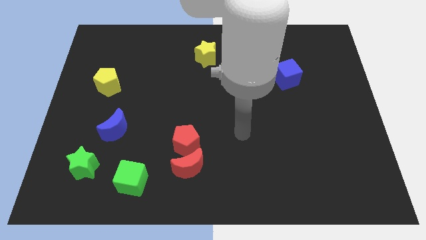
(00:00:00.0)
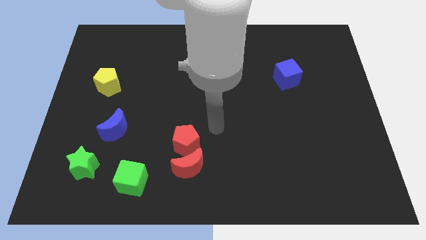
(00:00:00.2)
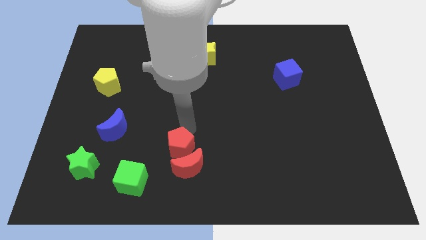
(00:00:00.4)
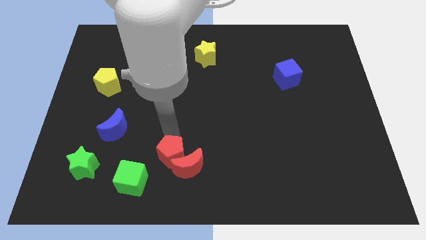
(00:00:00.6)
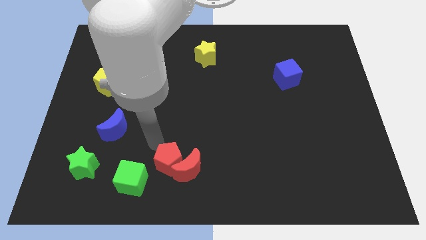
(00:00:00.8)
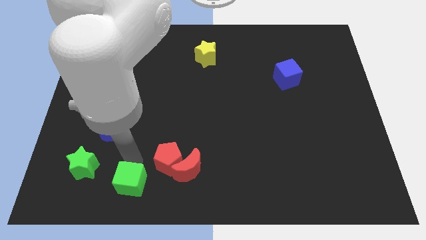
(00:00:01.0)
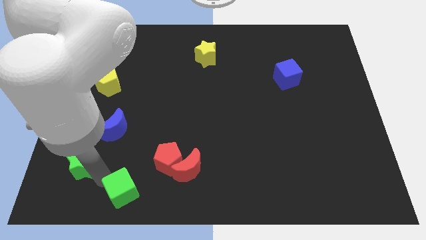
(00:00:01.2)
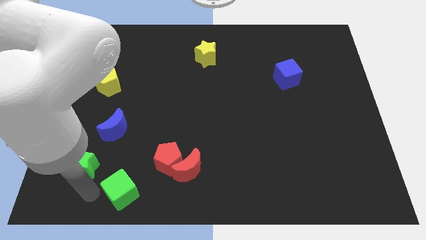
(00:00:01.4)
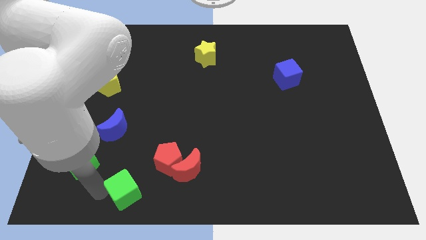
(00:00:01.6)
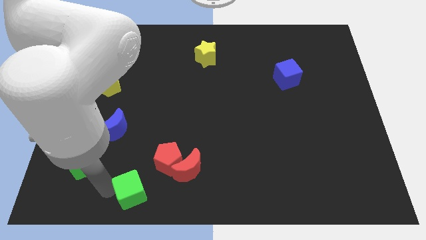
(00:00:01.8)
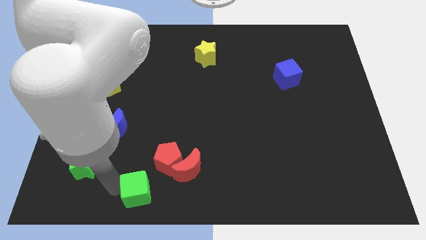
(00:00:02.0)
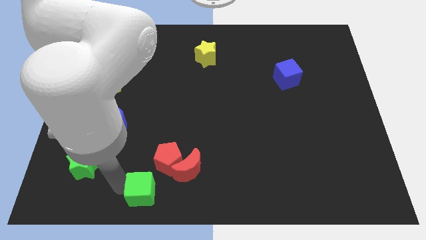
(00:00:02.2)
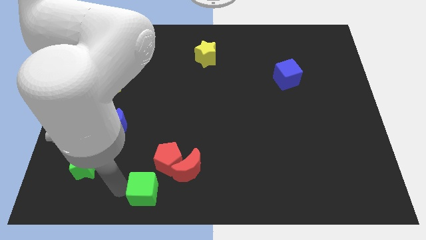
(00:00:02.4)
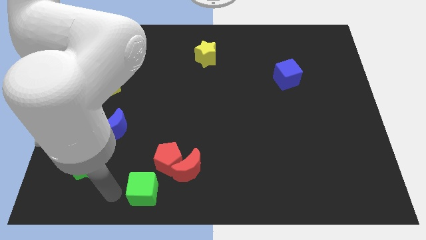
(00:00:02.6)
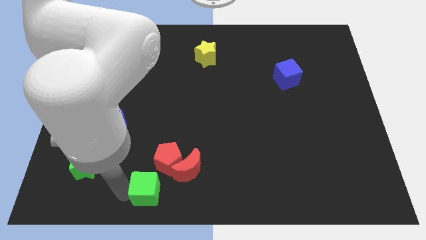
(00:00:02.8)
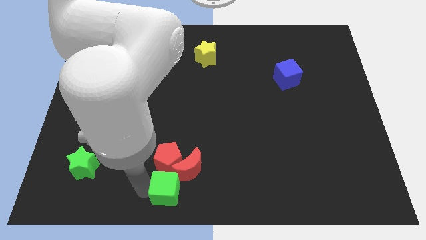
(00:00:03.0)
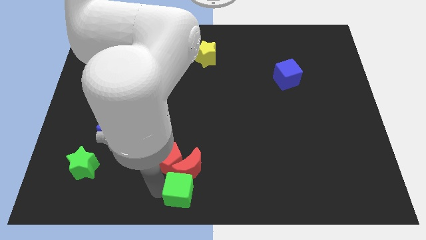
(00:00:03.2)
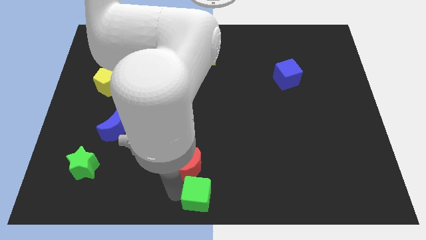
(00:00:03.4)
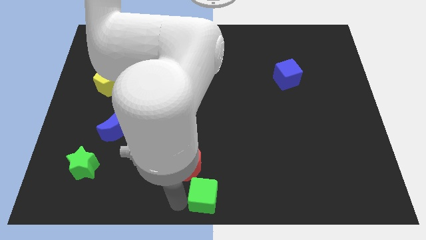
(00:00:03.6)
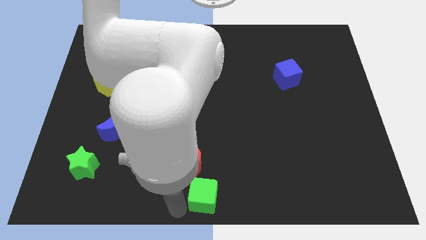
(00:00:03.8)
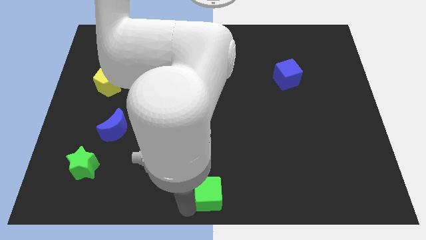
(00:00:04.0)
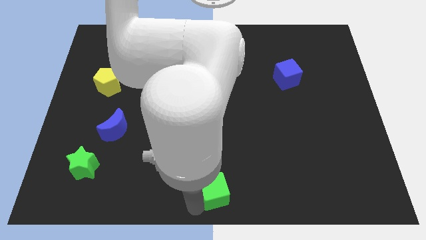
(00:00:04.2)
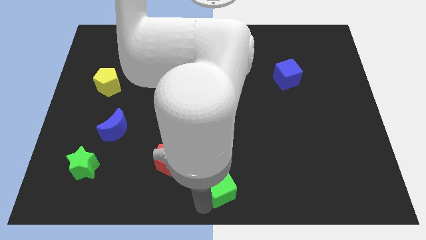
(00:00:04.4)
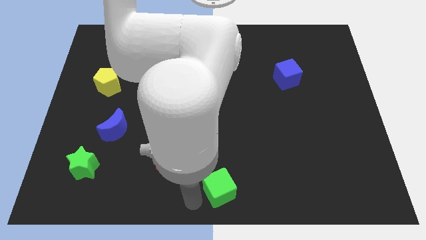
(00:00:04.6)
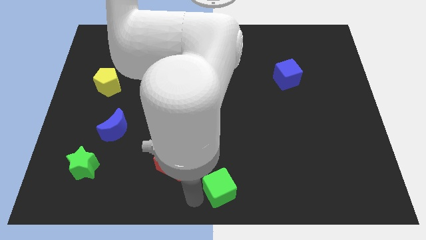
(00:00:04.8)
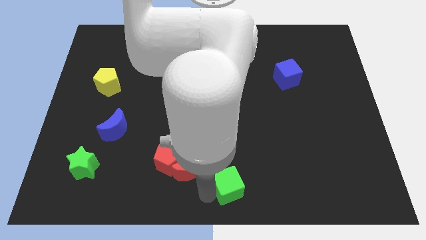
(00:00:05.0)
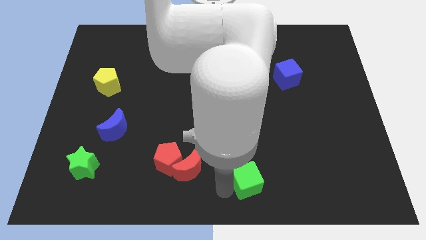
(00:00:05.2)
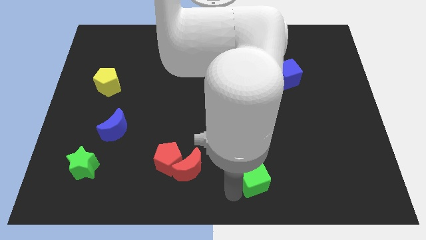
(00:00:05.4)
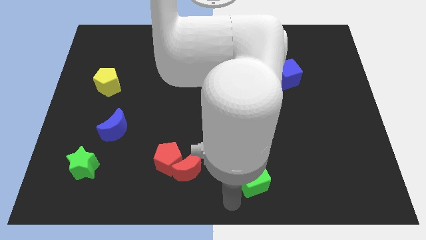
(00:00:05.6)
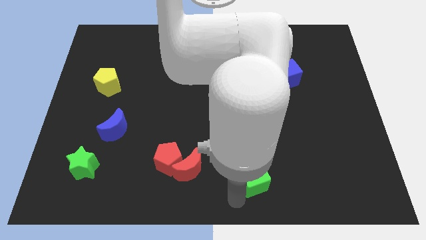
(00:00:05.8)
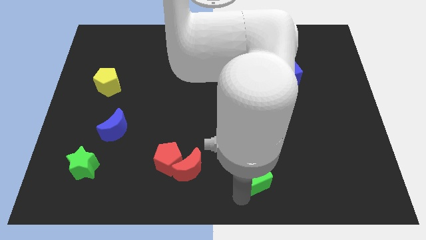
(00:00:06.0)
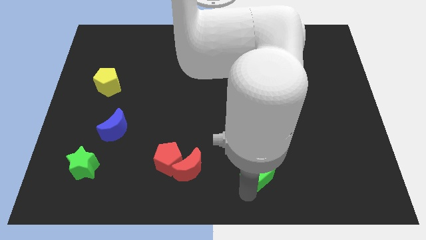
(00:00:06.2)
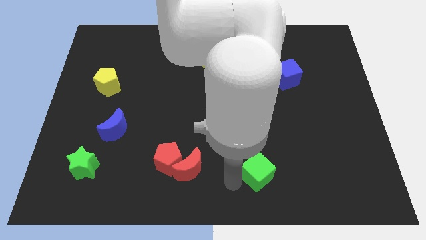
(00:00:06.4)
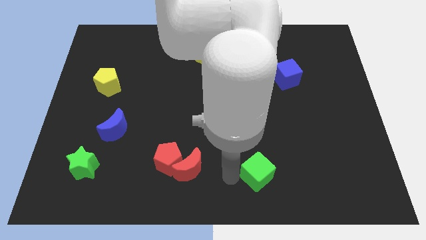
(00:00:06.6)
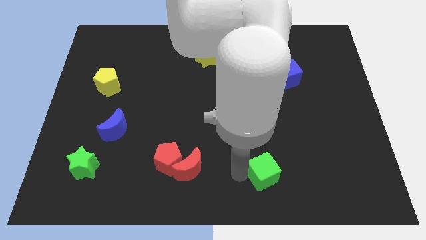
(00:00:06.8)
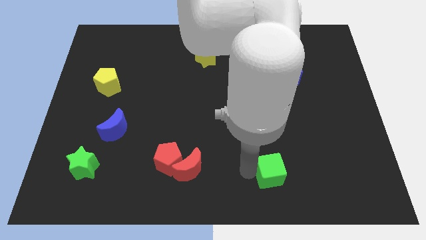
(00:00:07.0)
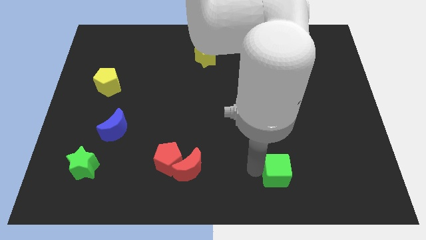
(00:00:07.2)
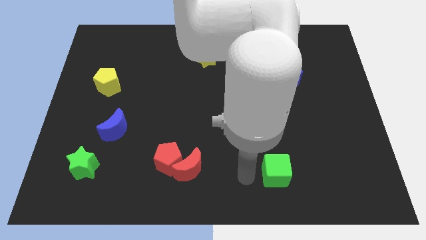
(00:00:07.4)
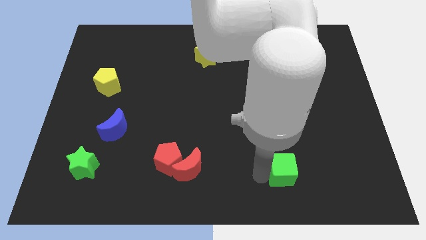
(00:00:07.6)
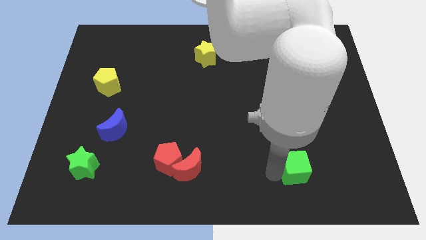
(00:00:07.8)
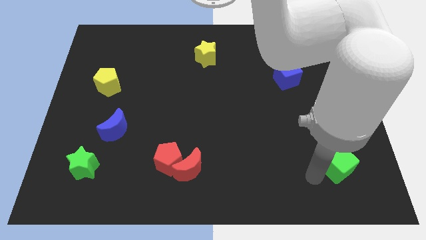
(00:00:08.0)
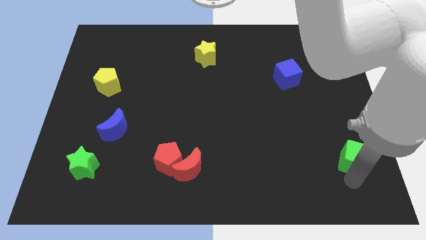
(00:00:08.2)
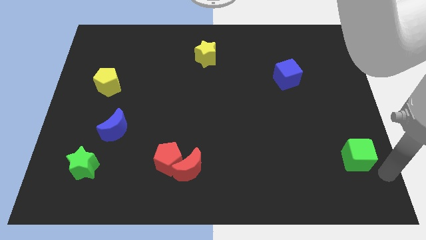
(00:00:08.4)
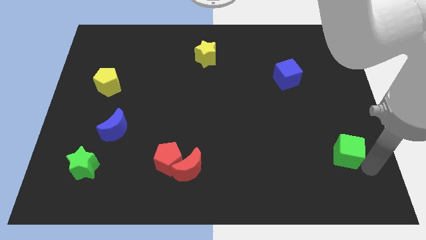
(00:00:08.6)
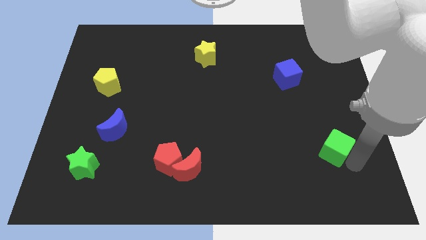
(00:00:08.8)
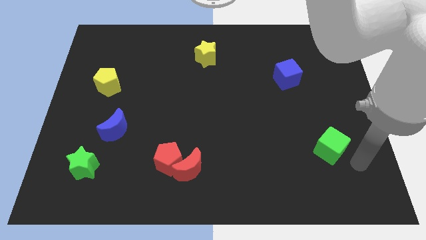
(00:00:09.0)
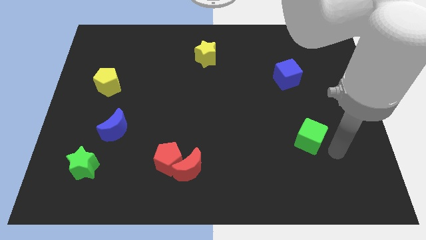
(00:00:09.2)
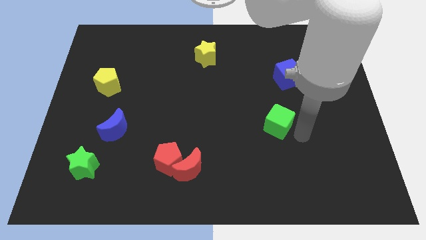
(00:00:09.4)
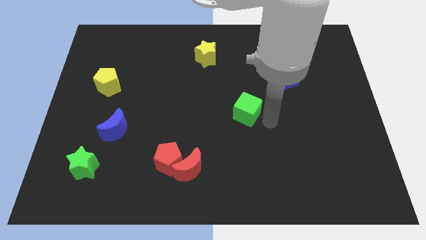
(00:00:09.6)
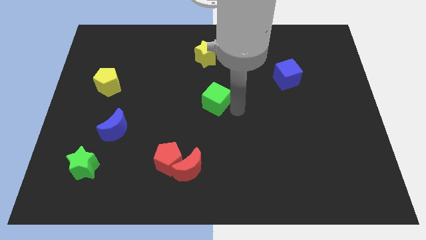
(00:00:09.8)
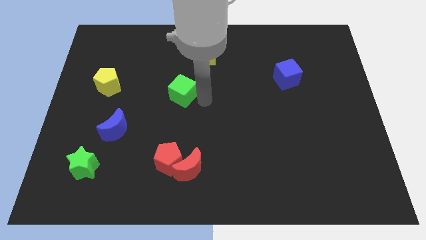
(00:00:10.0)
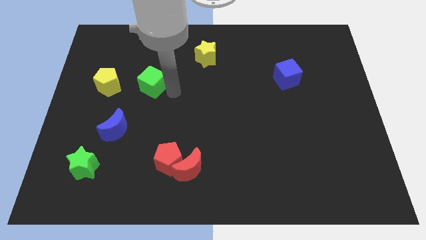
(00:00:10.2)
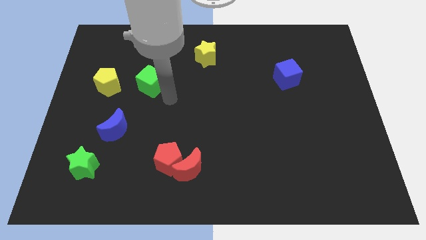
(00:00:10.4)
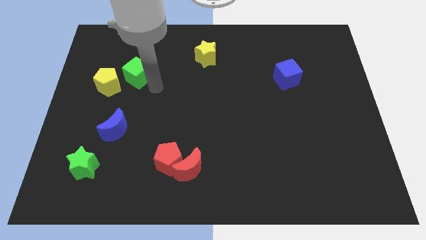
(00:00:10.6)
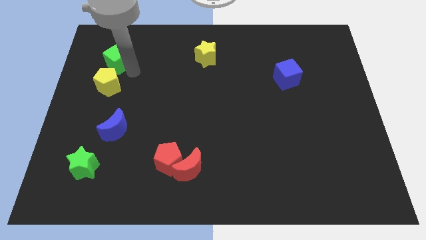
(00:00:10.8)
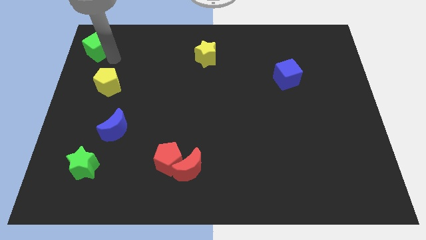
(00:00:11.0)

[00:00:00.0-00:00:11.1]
move the green cube to the top left

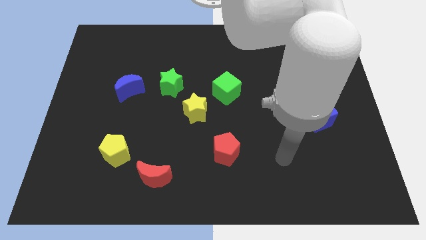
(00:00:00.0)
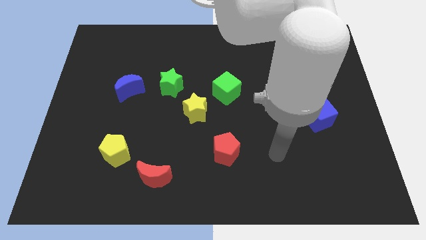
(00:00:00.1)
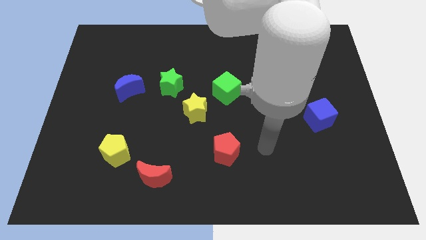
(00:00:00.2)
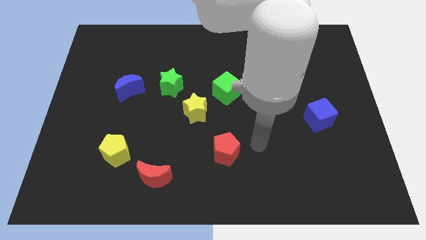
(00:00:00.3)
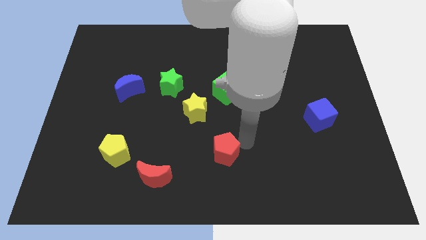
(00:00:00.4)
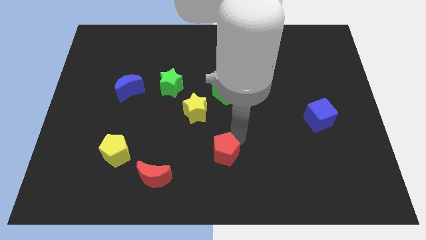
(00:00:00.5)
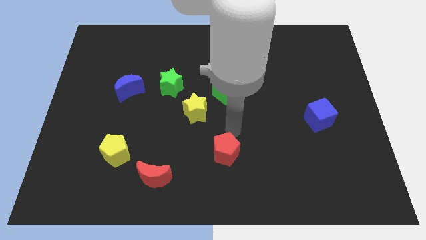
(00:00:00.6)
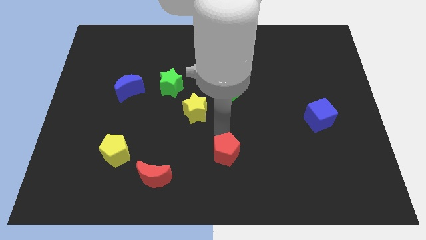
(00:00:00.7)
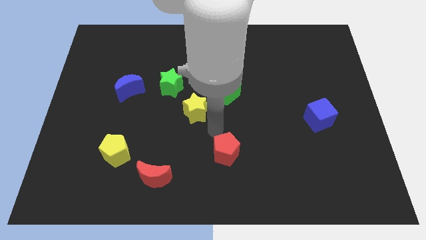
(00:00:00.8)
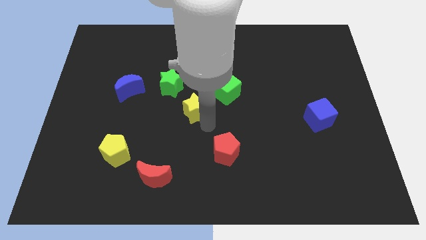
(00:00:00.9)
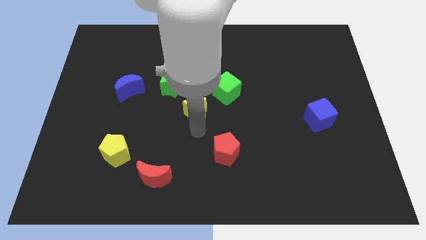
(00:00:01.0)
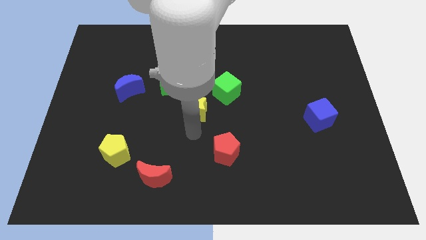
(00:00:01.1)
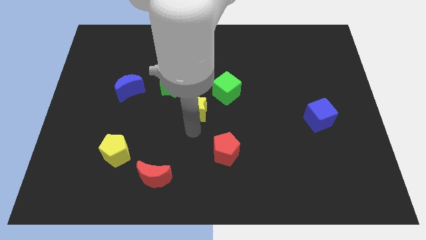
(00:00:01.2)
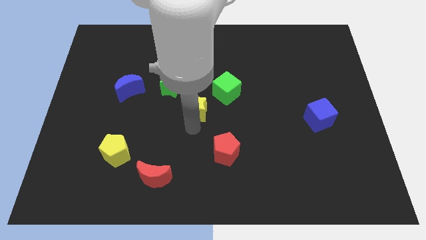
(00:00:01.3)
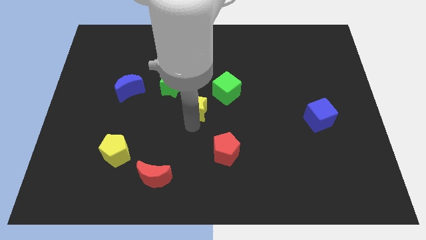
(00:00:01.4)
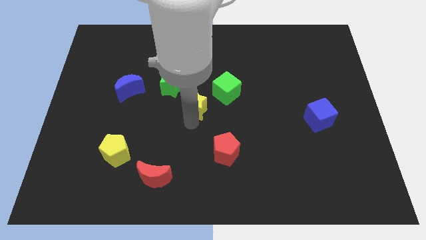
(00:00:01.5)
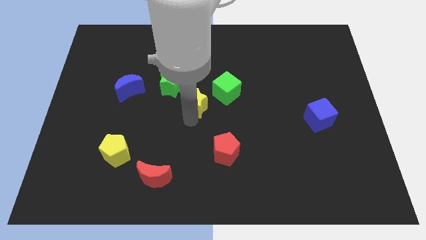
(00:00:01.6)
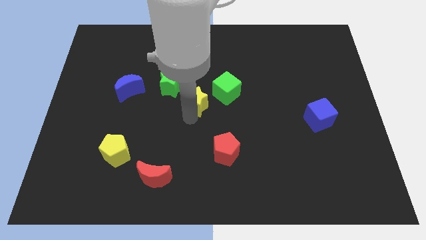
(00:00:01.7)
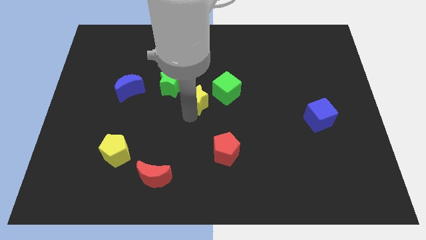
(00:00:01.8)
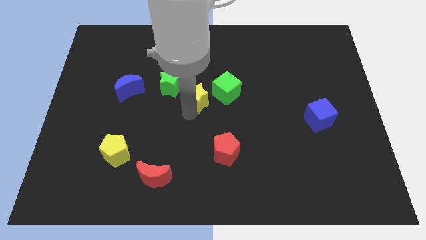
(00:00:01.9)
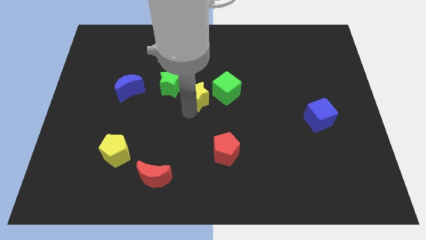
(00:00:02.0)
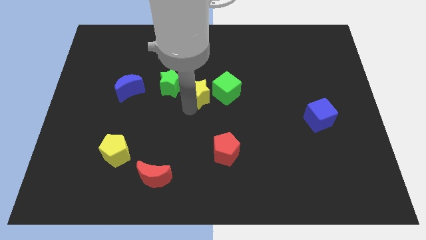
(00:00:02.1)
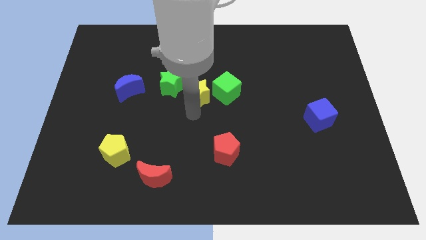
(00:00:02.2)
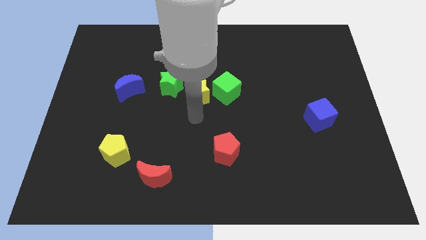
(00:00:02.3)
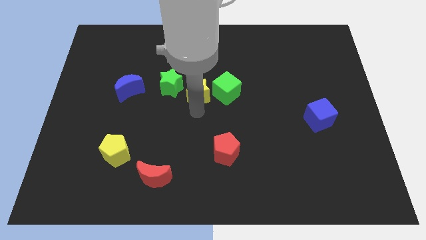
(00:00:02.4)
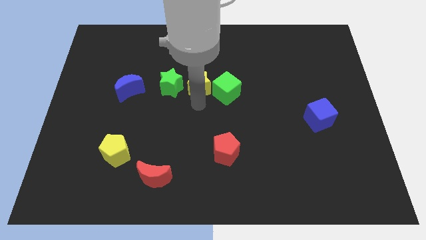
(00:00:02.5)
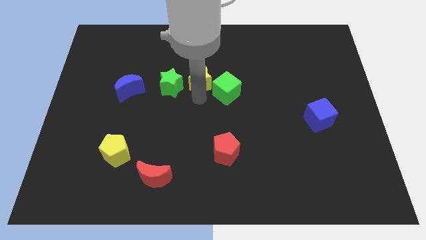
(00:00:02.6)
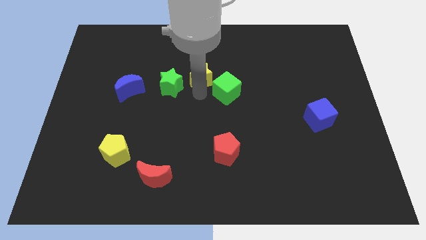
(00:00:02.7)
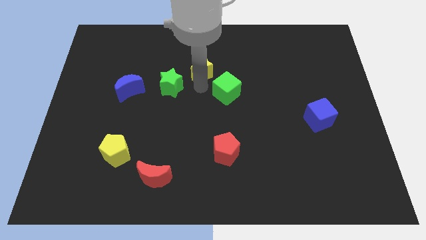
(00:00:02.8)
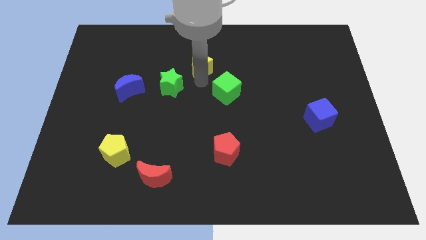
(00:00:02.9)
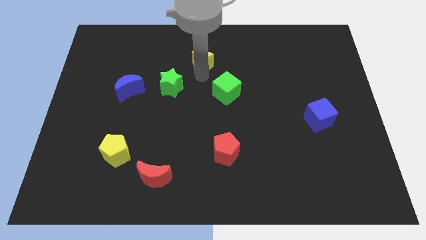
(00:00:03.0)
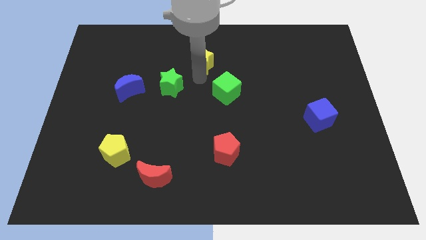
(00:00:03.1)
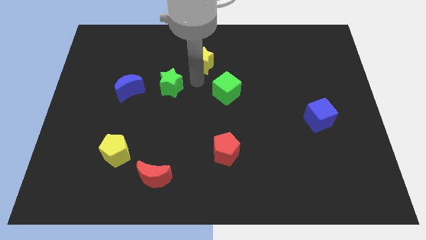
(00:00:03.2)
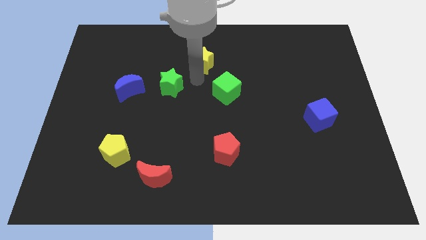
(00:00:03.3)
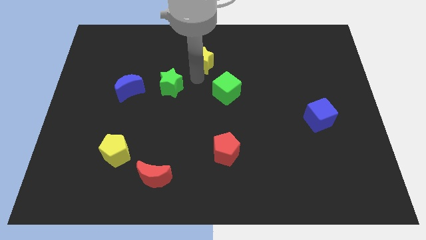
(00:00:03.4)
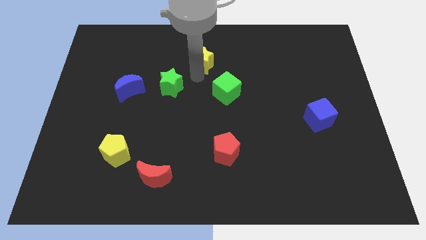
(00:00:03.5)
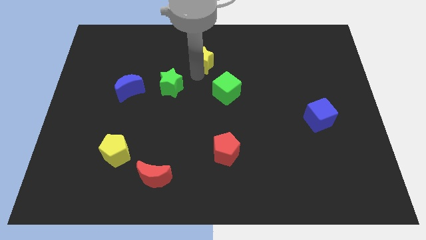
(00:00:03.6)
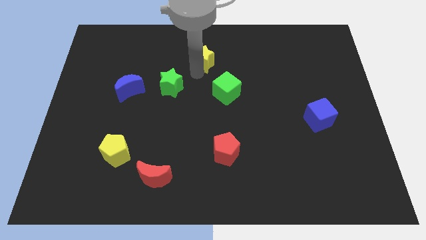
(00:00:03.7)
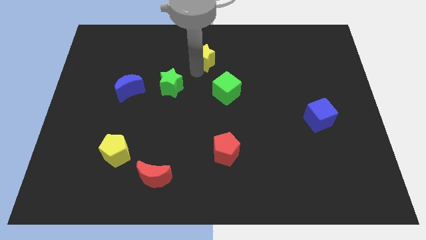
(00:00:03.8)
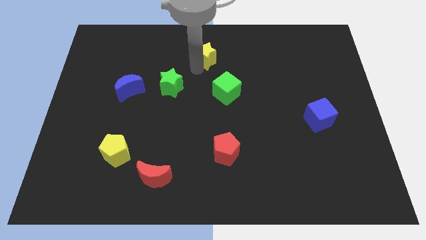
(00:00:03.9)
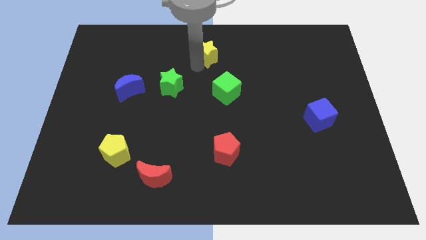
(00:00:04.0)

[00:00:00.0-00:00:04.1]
push the yellow star to the towards your base
